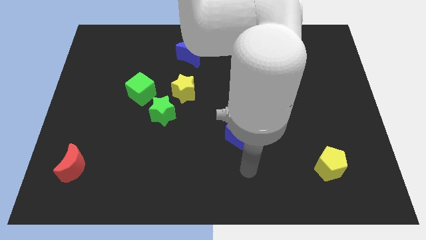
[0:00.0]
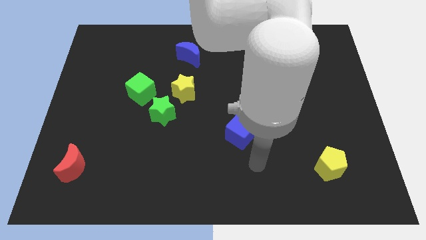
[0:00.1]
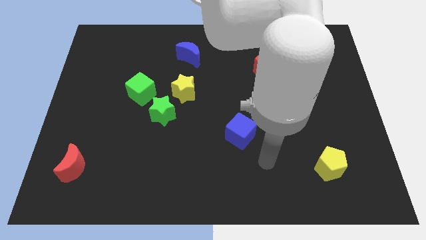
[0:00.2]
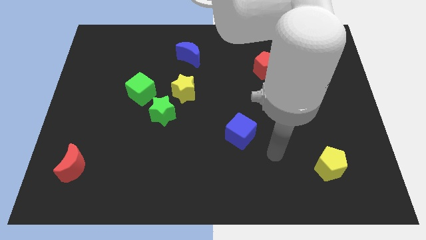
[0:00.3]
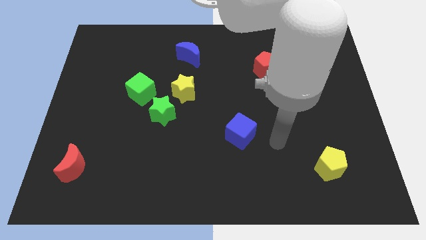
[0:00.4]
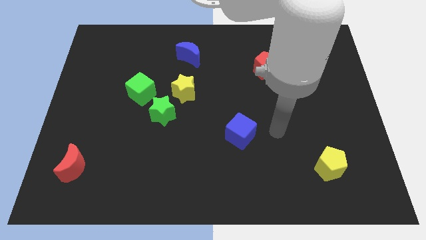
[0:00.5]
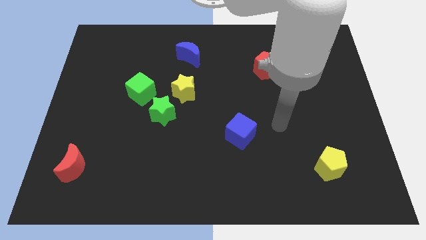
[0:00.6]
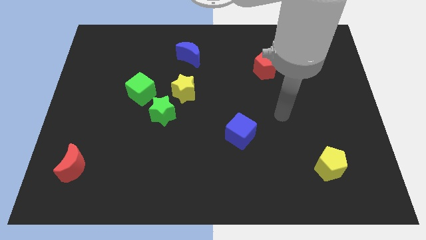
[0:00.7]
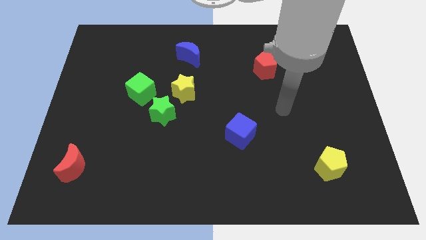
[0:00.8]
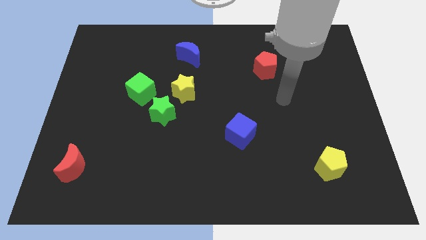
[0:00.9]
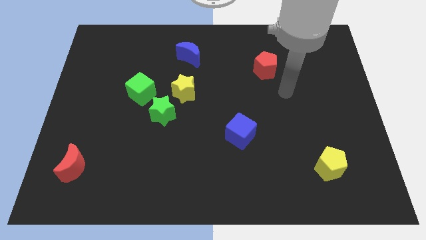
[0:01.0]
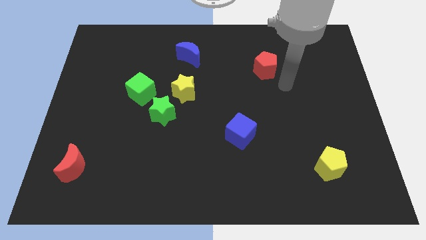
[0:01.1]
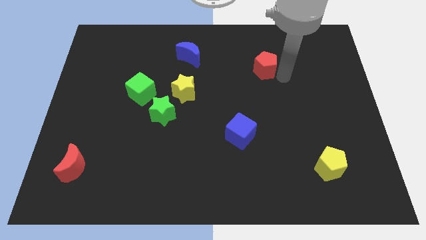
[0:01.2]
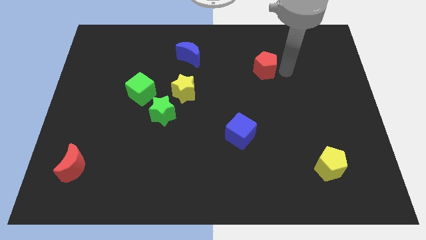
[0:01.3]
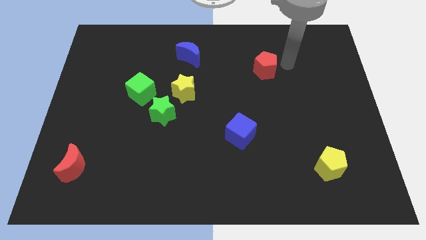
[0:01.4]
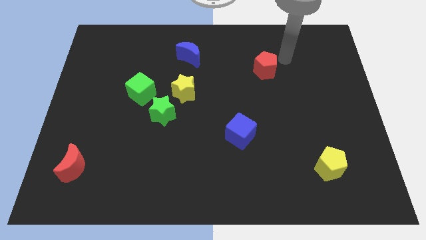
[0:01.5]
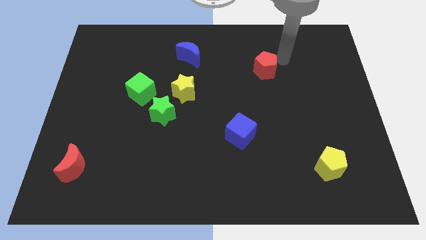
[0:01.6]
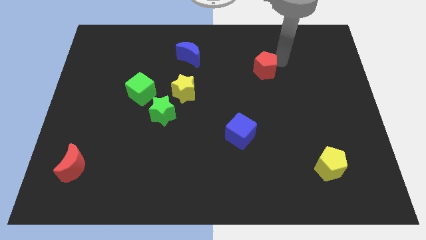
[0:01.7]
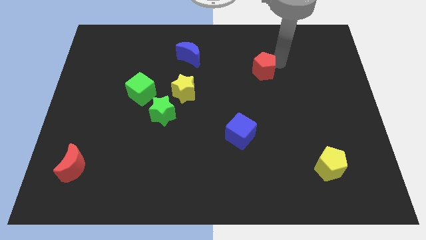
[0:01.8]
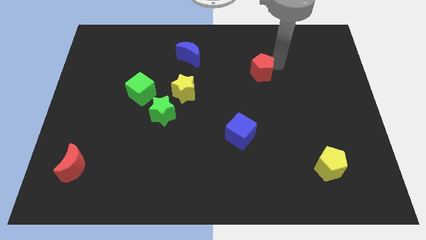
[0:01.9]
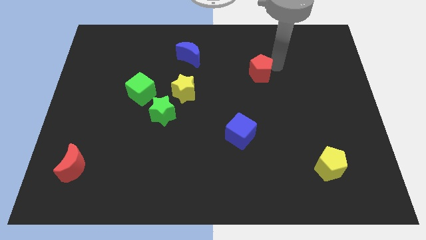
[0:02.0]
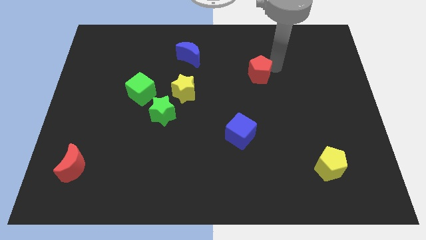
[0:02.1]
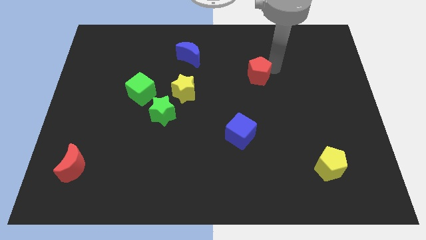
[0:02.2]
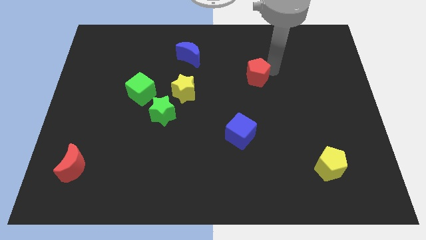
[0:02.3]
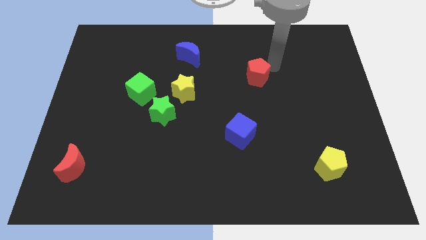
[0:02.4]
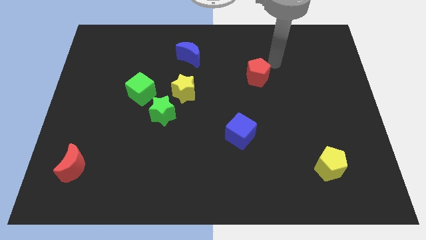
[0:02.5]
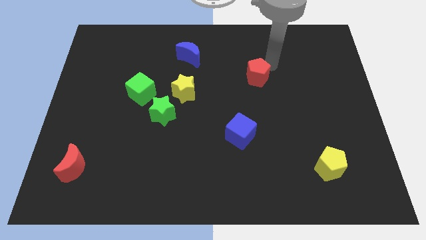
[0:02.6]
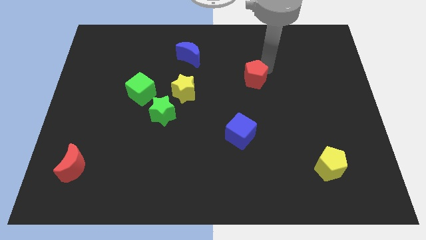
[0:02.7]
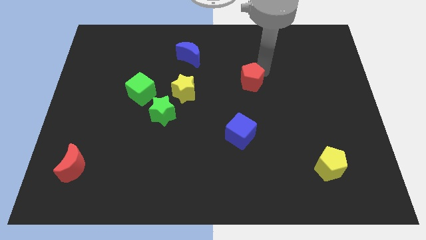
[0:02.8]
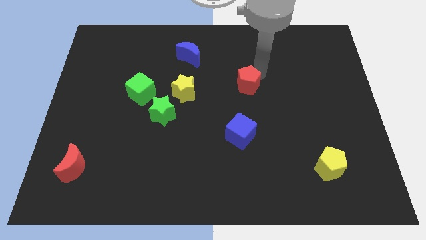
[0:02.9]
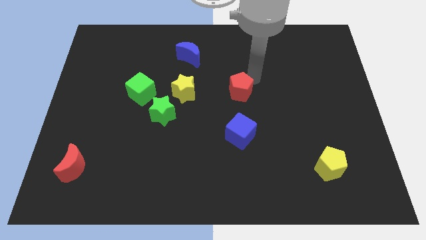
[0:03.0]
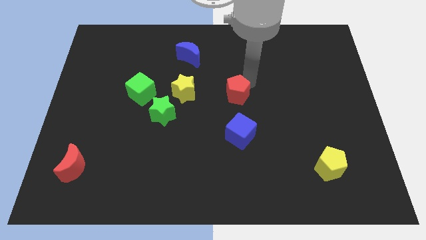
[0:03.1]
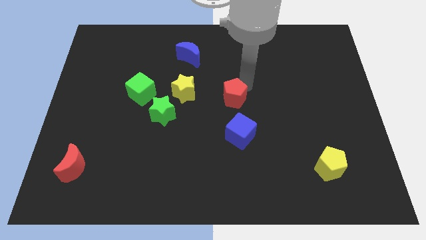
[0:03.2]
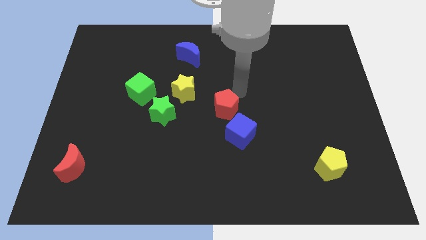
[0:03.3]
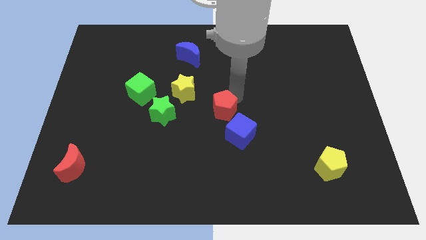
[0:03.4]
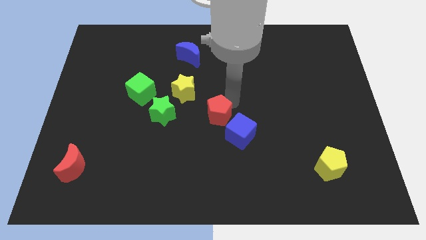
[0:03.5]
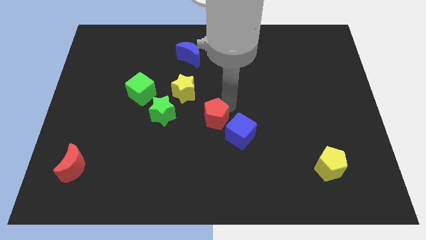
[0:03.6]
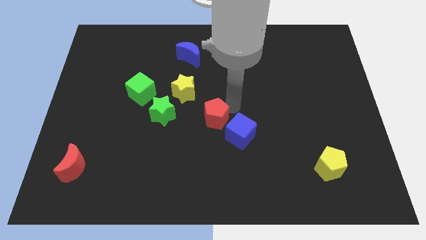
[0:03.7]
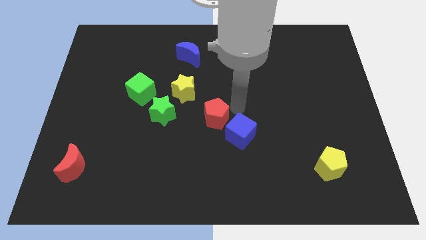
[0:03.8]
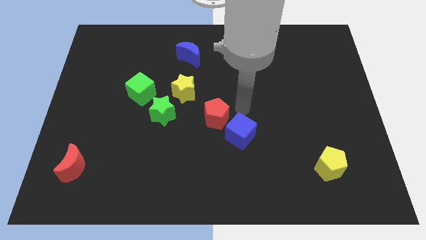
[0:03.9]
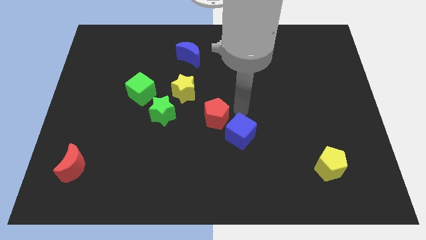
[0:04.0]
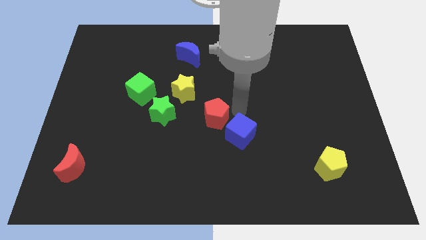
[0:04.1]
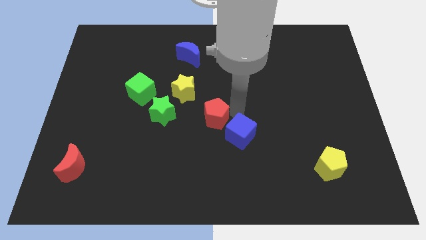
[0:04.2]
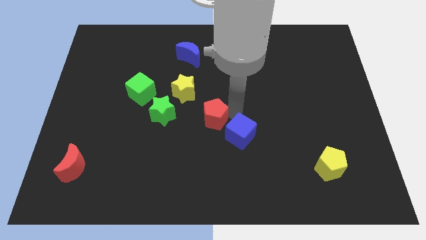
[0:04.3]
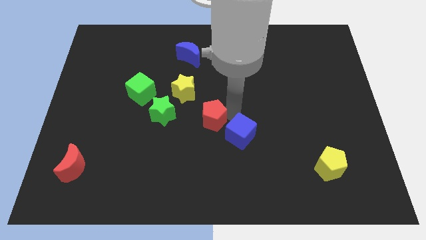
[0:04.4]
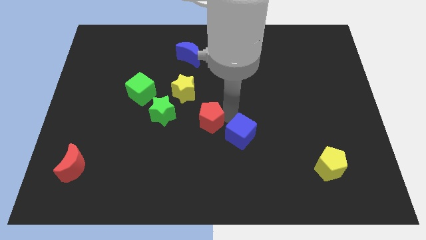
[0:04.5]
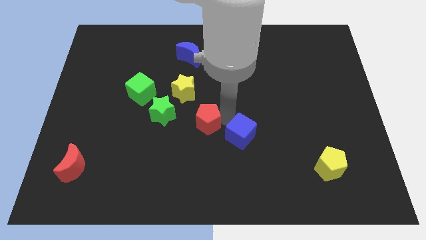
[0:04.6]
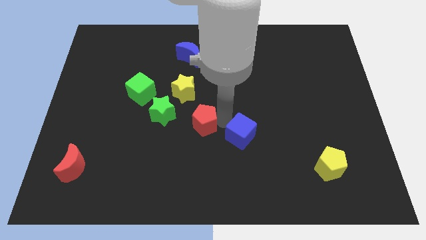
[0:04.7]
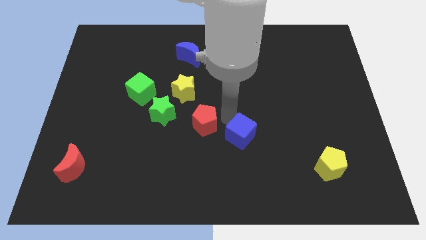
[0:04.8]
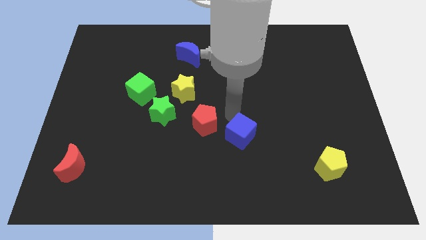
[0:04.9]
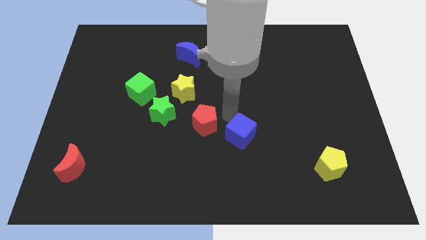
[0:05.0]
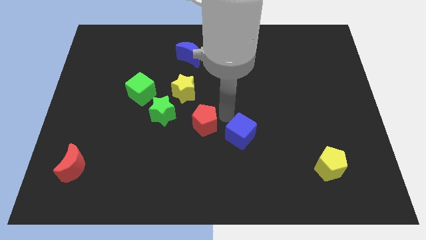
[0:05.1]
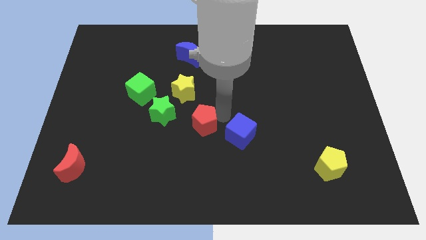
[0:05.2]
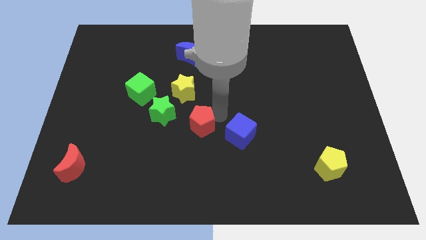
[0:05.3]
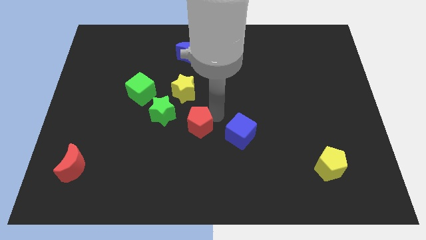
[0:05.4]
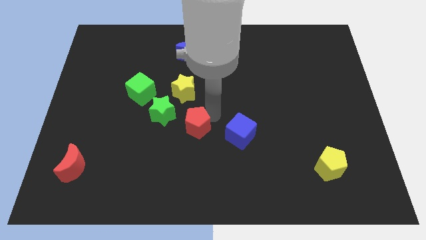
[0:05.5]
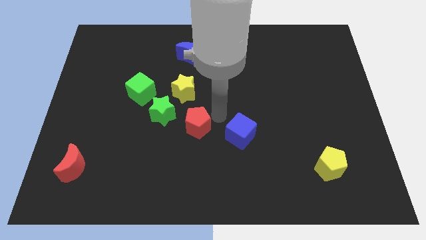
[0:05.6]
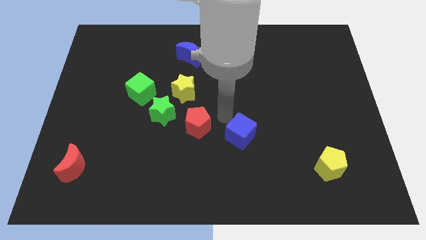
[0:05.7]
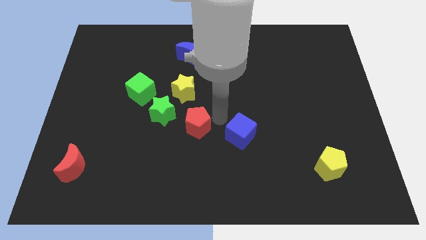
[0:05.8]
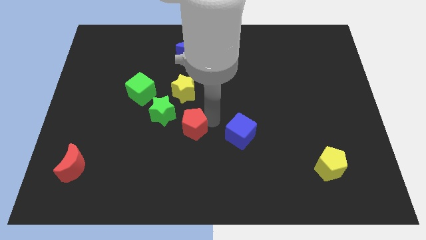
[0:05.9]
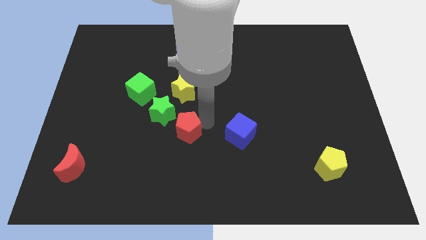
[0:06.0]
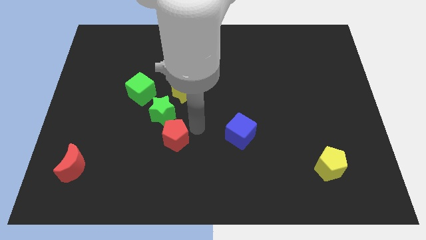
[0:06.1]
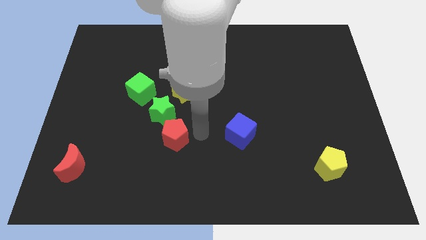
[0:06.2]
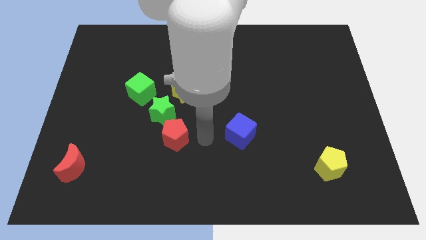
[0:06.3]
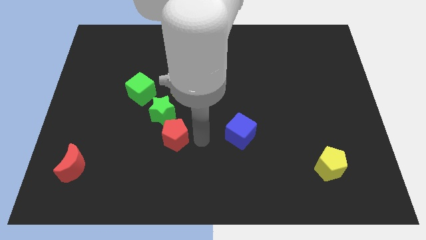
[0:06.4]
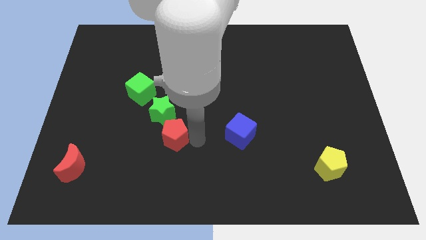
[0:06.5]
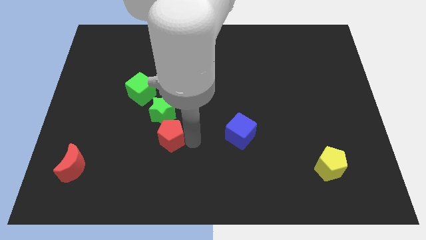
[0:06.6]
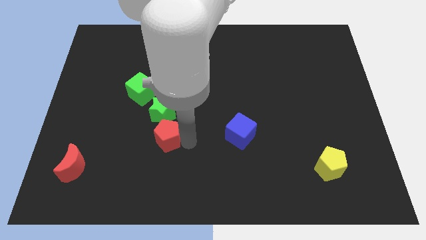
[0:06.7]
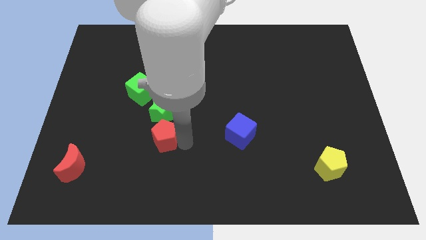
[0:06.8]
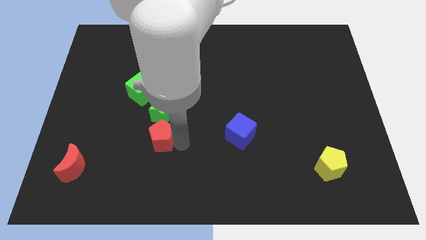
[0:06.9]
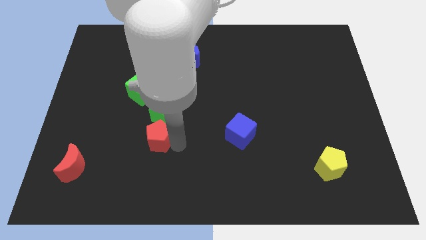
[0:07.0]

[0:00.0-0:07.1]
put the red pentagon to the bottom left side of the green star
